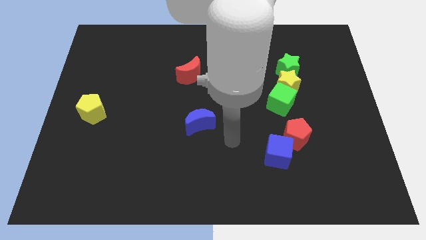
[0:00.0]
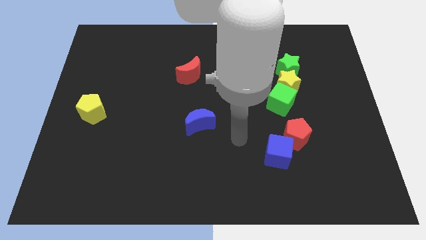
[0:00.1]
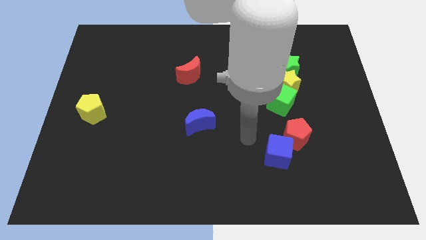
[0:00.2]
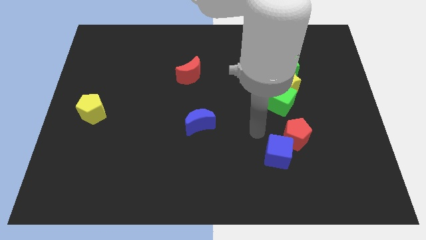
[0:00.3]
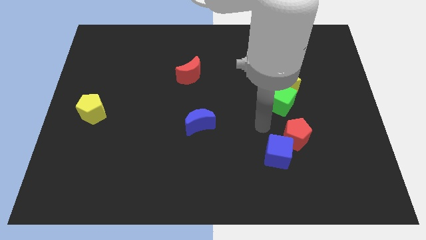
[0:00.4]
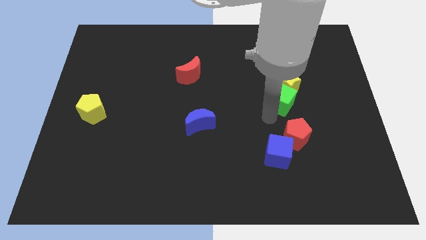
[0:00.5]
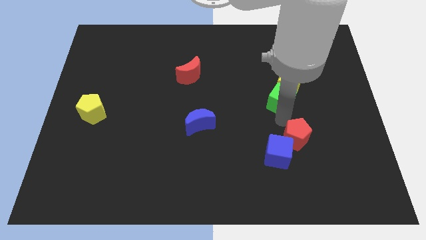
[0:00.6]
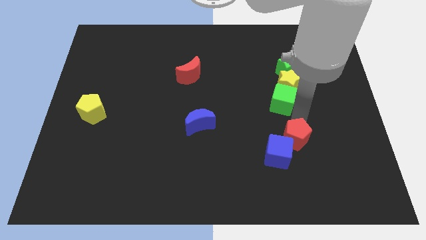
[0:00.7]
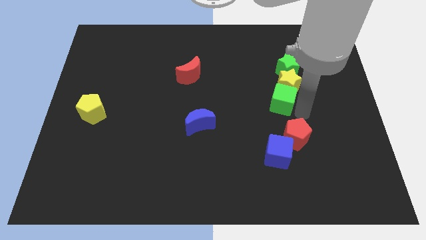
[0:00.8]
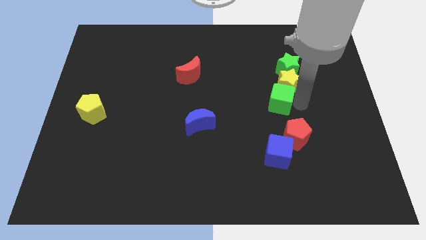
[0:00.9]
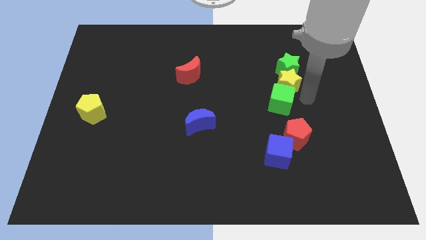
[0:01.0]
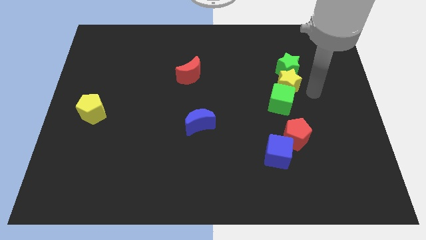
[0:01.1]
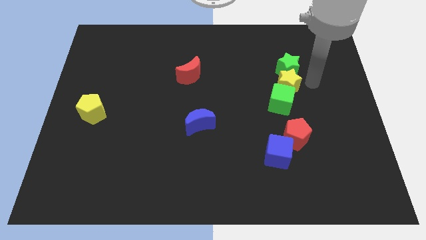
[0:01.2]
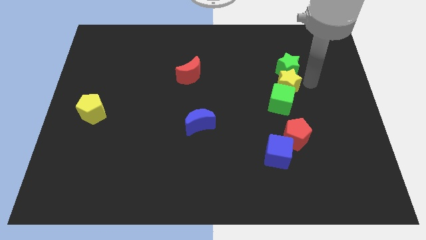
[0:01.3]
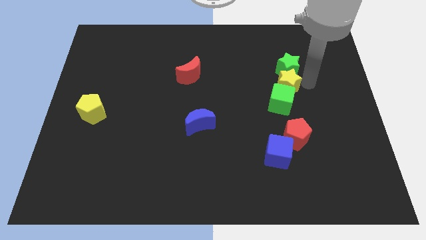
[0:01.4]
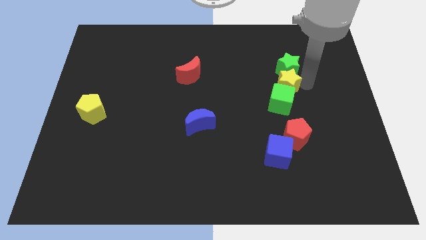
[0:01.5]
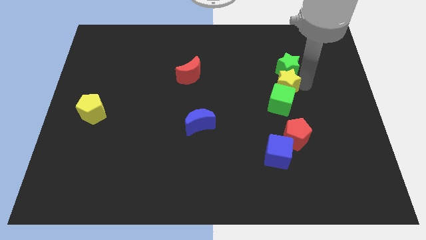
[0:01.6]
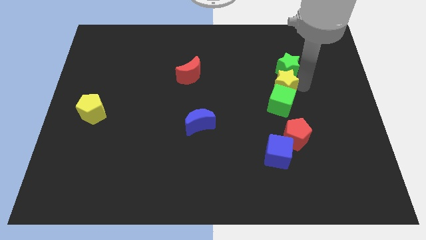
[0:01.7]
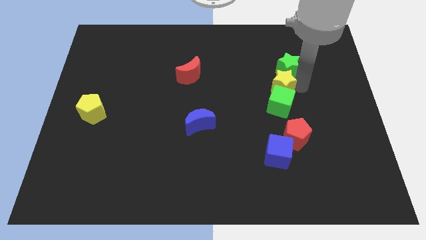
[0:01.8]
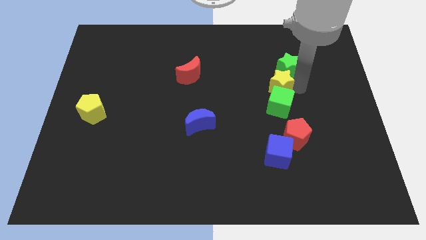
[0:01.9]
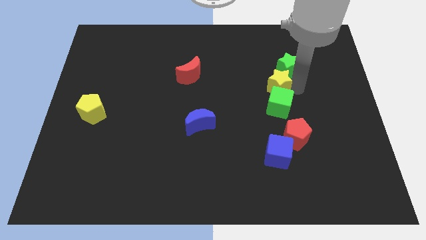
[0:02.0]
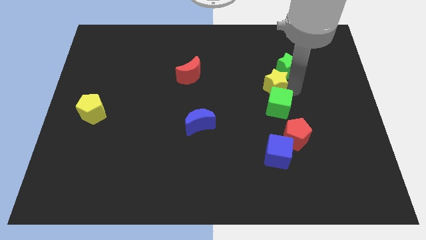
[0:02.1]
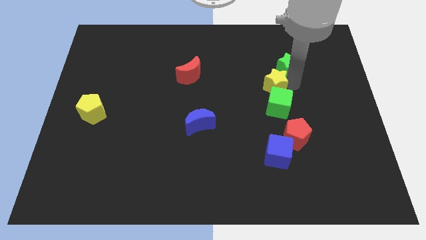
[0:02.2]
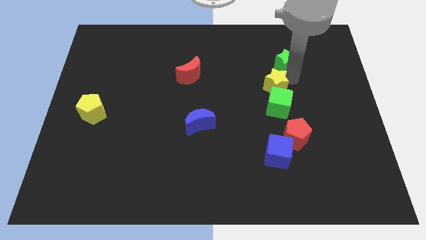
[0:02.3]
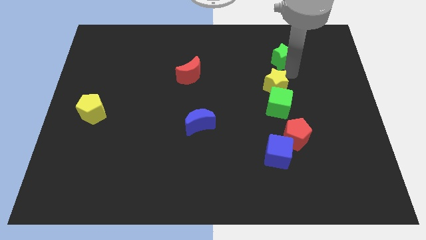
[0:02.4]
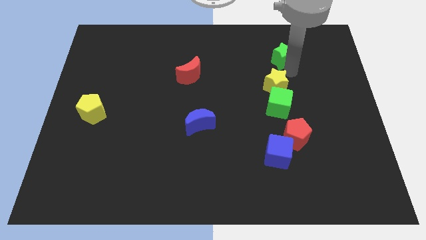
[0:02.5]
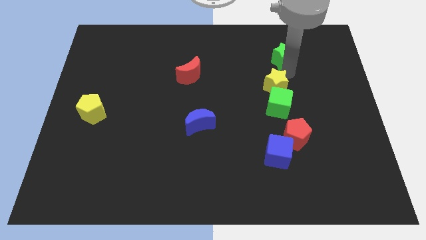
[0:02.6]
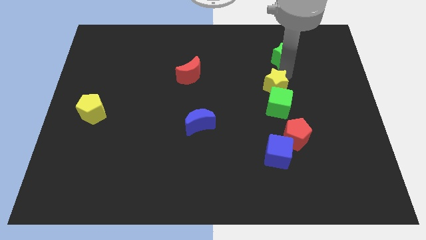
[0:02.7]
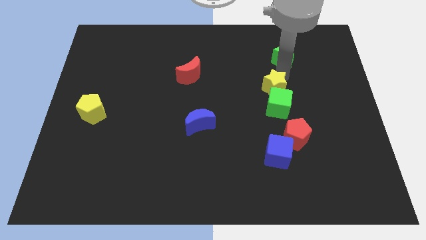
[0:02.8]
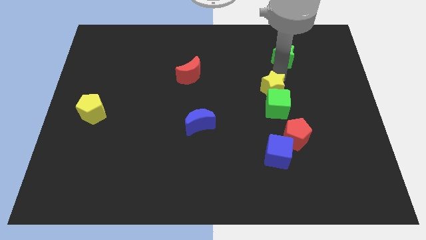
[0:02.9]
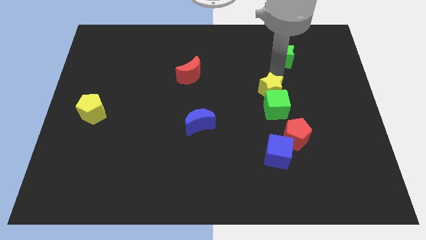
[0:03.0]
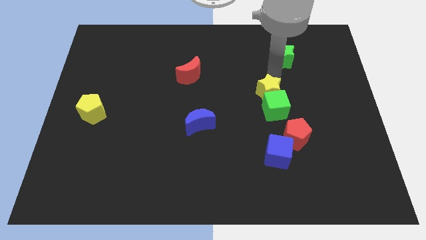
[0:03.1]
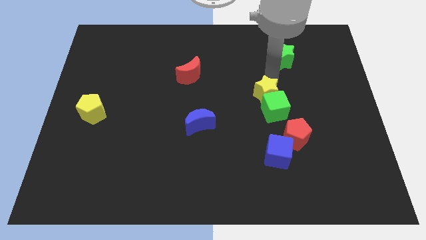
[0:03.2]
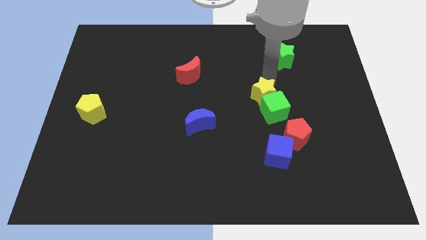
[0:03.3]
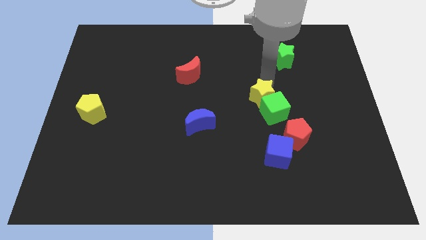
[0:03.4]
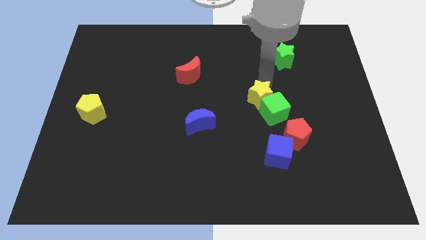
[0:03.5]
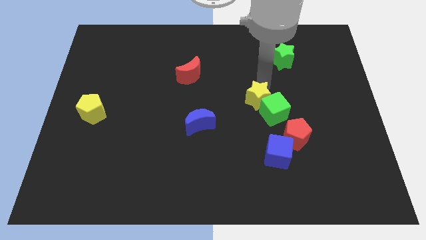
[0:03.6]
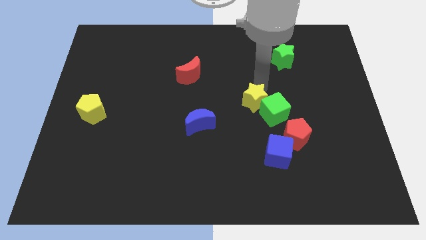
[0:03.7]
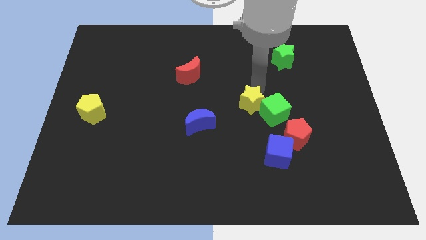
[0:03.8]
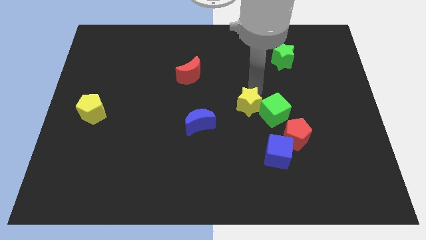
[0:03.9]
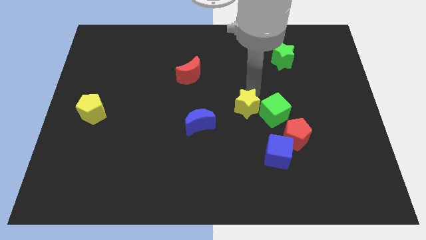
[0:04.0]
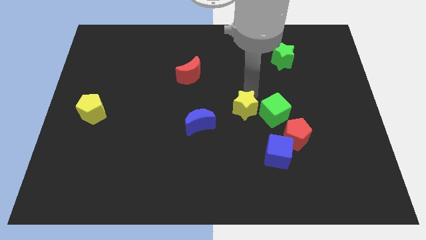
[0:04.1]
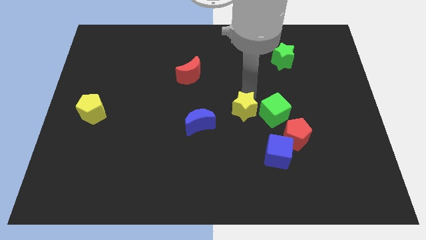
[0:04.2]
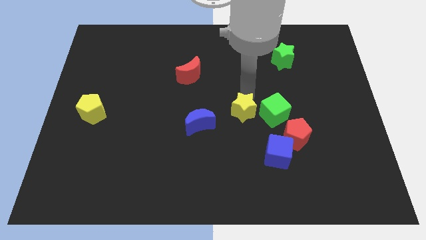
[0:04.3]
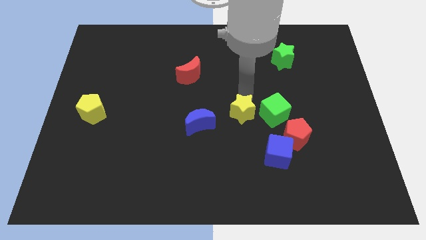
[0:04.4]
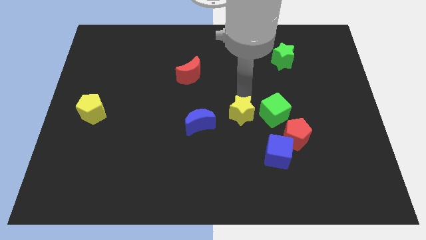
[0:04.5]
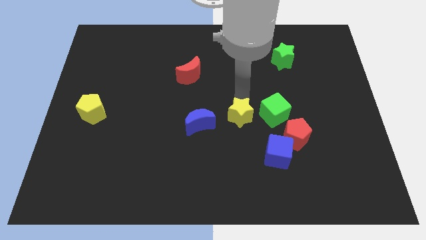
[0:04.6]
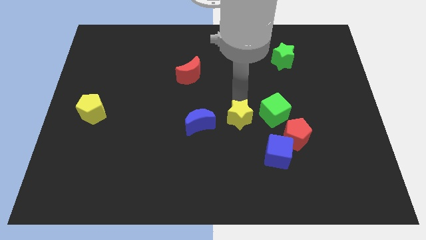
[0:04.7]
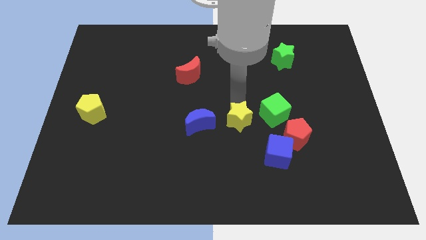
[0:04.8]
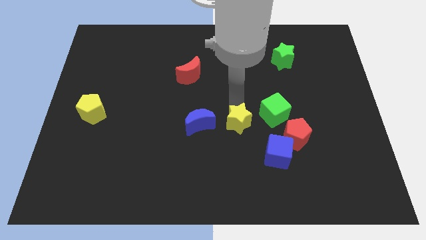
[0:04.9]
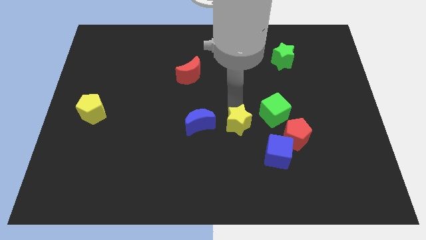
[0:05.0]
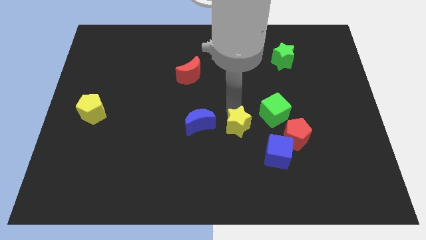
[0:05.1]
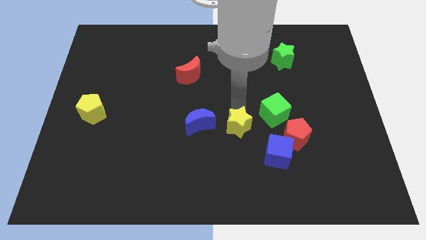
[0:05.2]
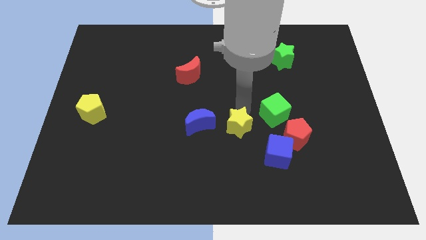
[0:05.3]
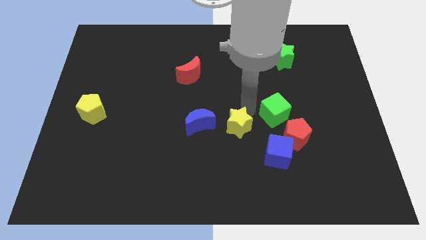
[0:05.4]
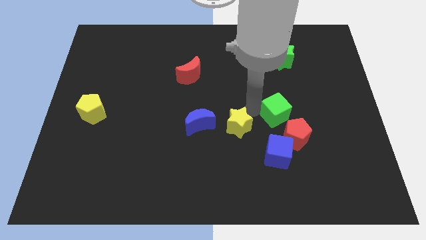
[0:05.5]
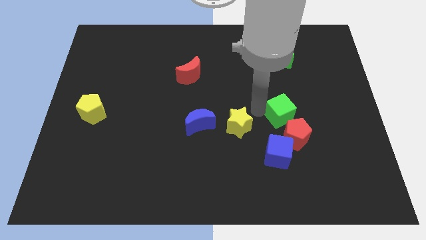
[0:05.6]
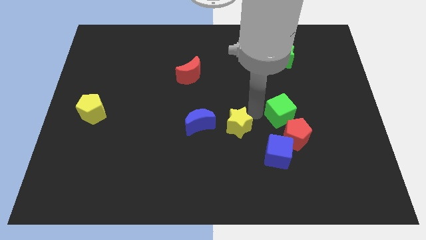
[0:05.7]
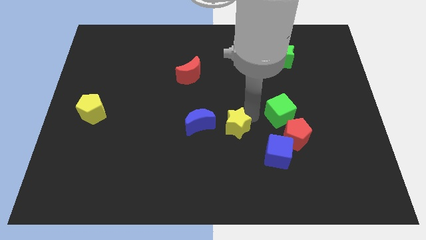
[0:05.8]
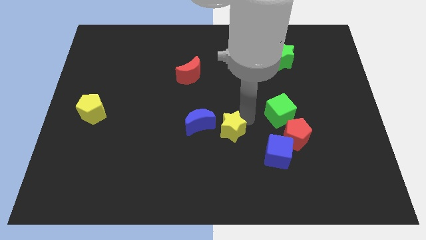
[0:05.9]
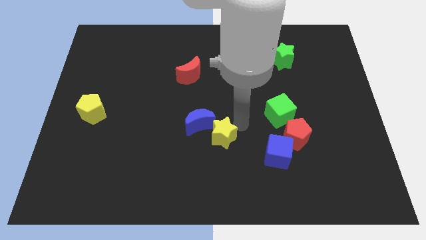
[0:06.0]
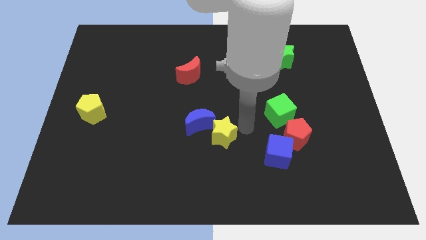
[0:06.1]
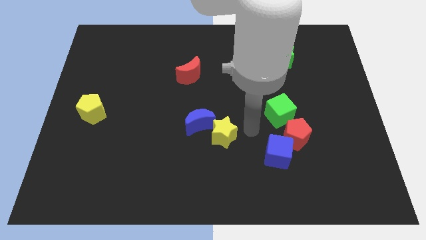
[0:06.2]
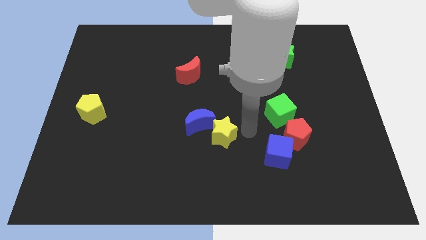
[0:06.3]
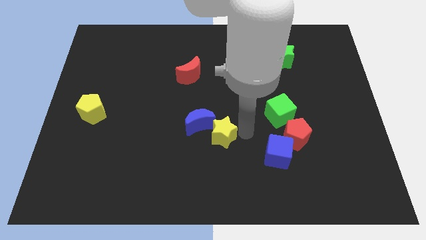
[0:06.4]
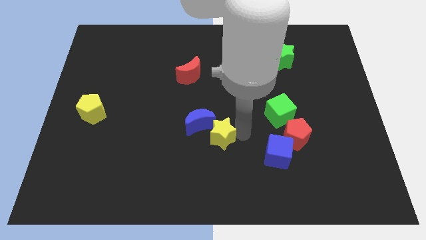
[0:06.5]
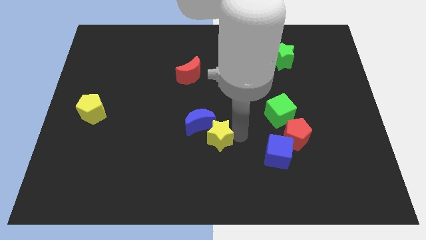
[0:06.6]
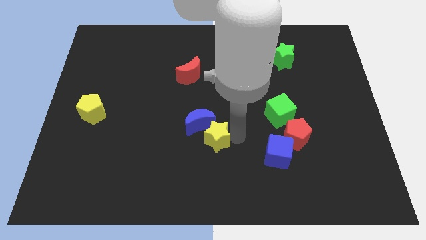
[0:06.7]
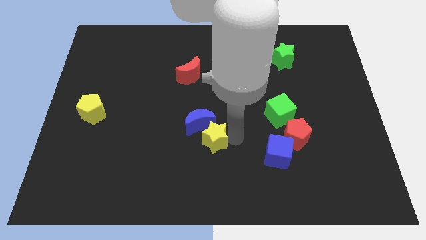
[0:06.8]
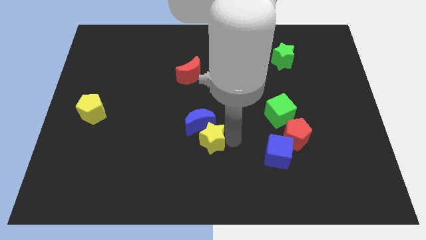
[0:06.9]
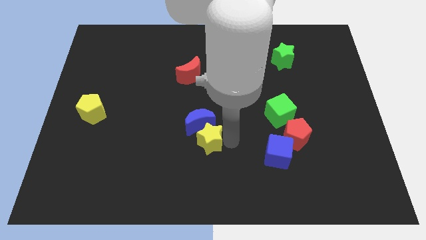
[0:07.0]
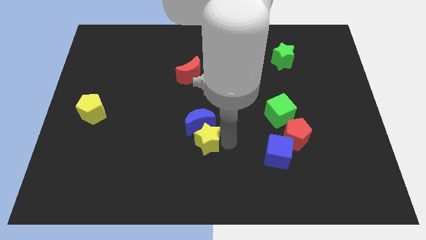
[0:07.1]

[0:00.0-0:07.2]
put the yellow star diagonally down and to the left of the blue moon

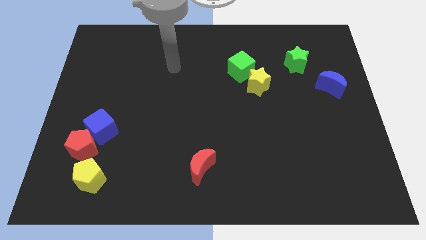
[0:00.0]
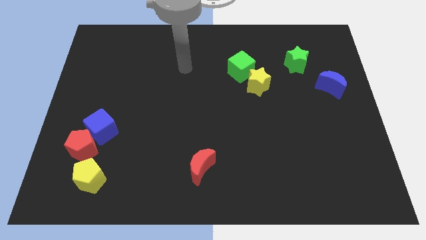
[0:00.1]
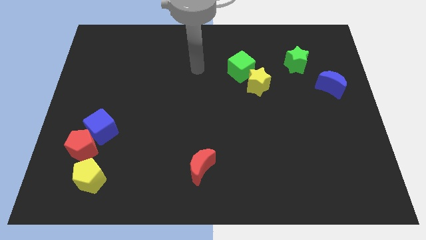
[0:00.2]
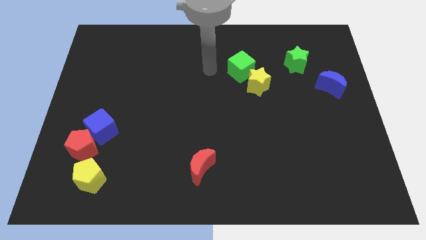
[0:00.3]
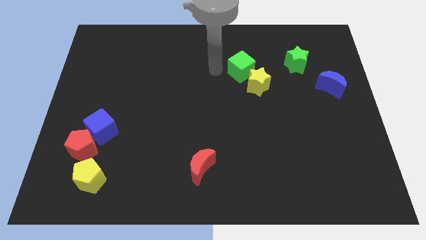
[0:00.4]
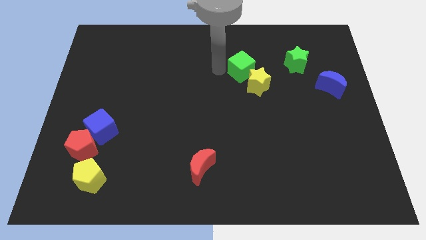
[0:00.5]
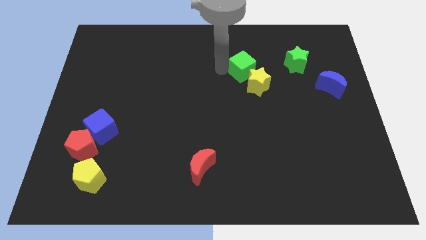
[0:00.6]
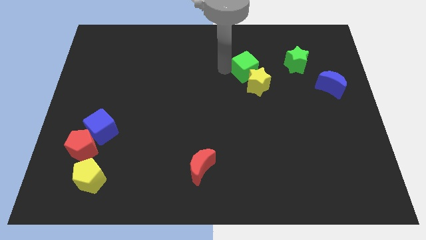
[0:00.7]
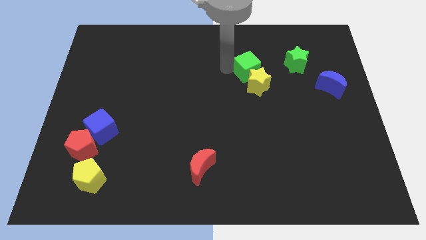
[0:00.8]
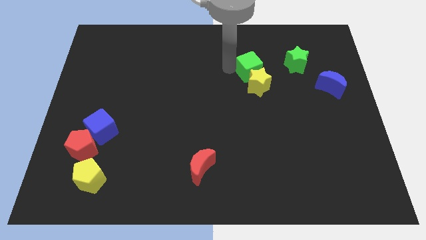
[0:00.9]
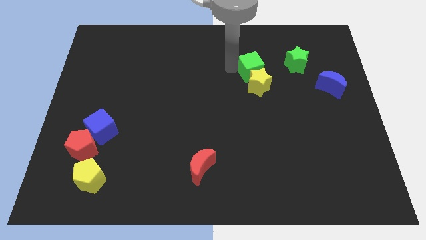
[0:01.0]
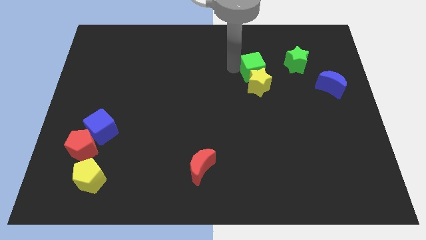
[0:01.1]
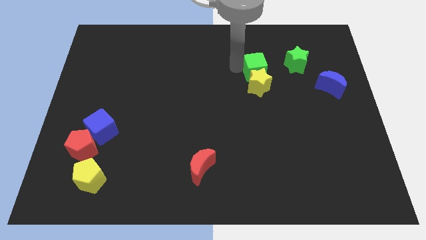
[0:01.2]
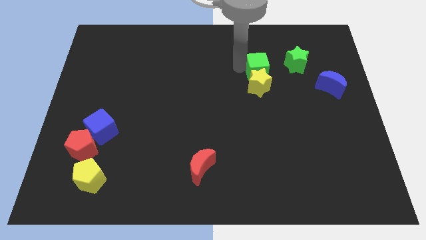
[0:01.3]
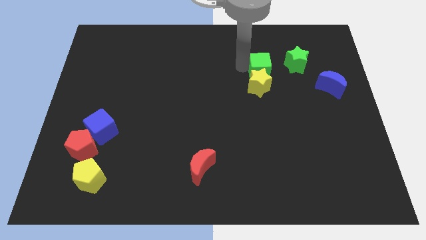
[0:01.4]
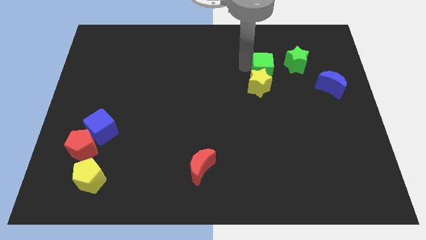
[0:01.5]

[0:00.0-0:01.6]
move the green cube diagonally down and to the left of the green star

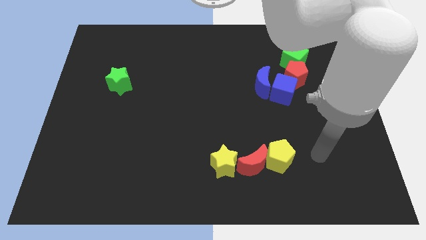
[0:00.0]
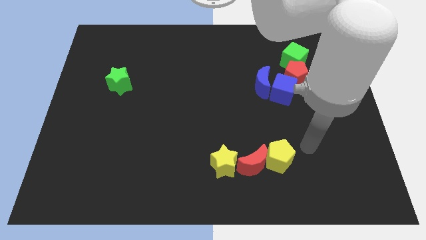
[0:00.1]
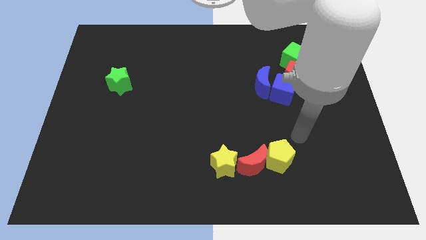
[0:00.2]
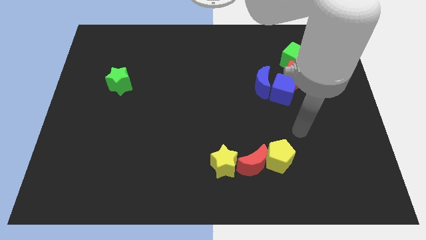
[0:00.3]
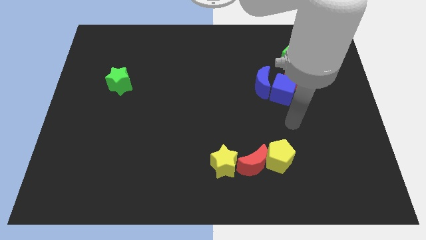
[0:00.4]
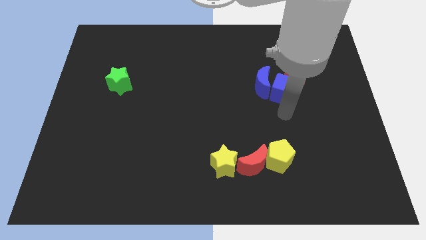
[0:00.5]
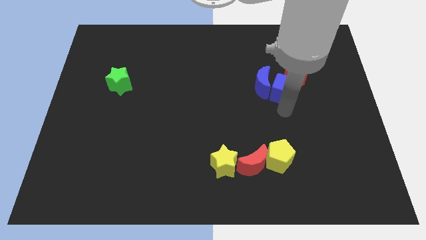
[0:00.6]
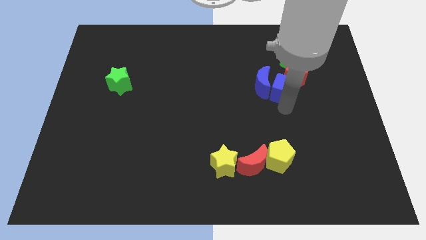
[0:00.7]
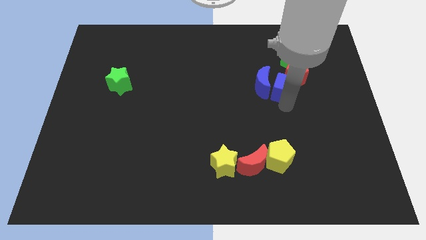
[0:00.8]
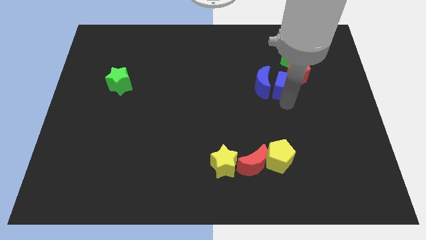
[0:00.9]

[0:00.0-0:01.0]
slide the blue cube to the top right side of the blue moon
